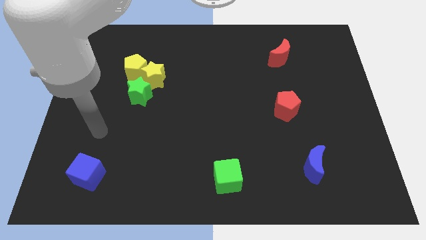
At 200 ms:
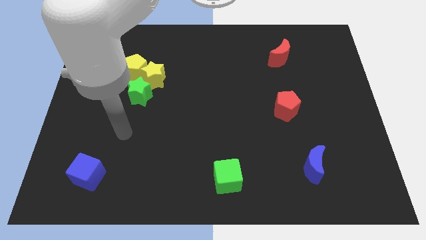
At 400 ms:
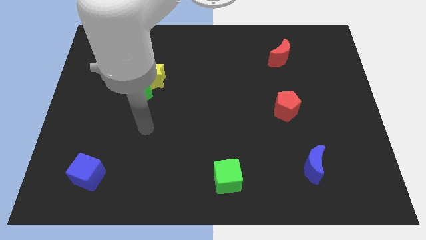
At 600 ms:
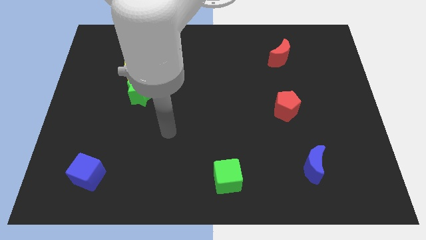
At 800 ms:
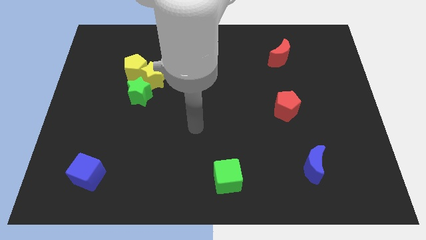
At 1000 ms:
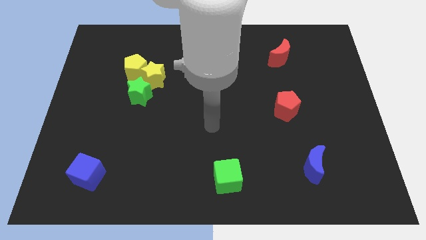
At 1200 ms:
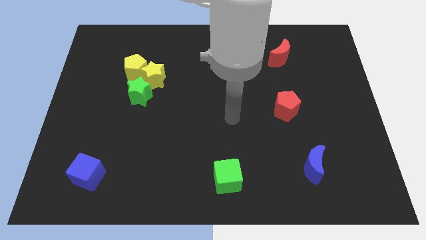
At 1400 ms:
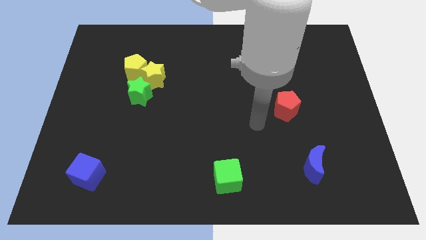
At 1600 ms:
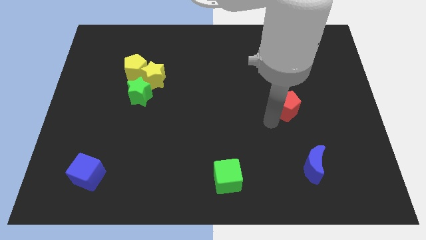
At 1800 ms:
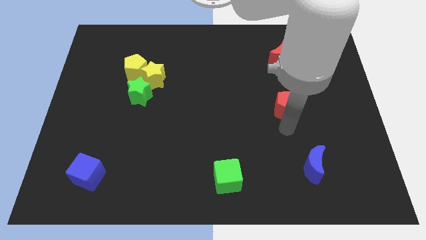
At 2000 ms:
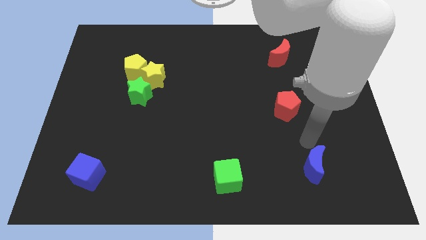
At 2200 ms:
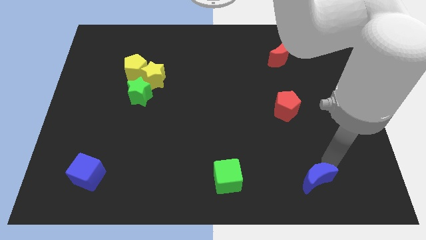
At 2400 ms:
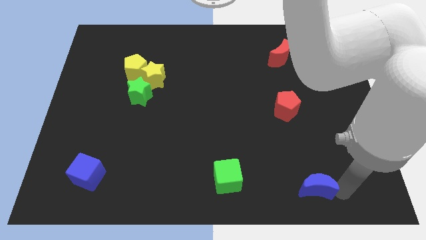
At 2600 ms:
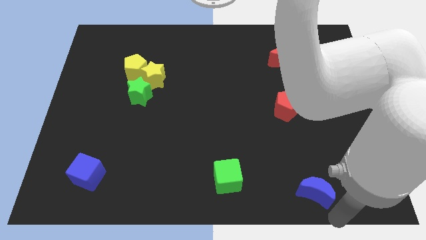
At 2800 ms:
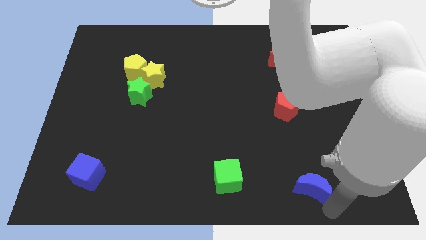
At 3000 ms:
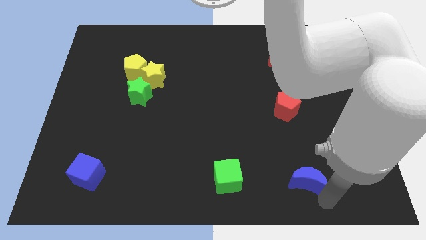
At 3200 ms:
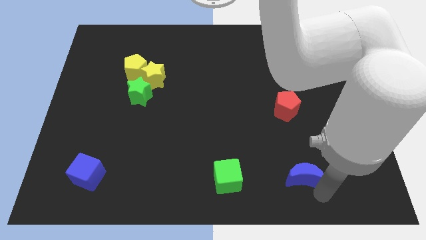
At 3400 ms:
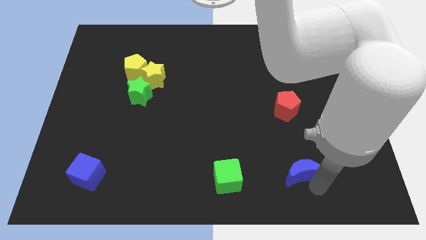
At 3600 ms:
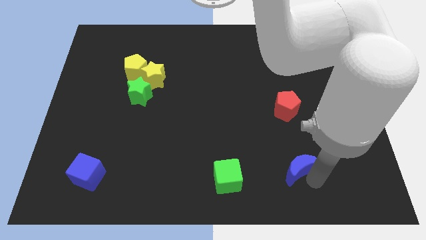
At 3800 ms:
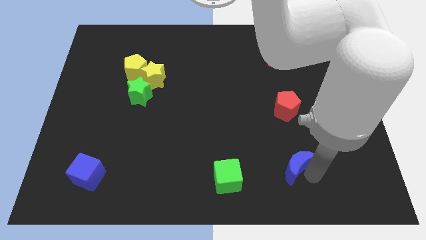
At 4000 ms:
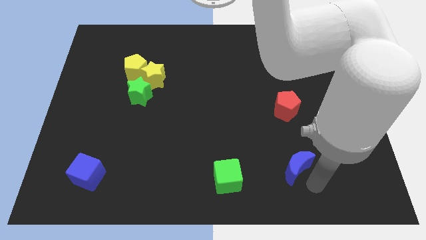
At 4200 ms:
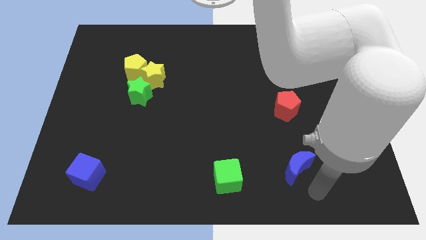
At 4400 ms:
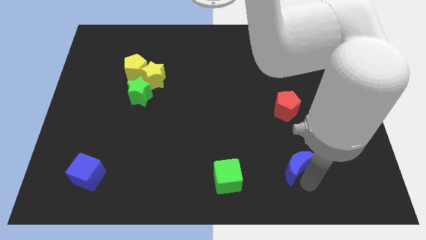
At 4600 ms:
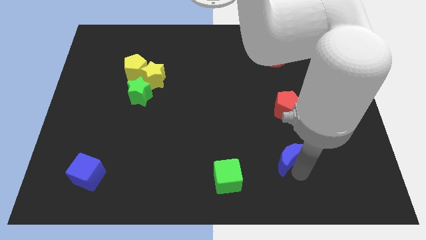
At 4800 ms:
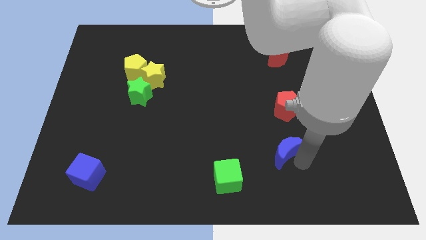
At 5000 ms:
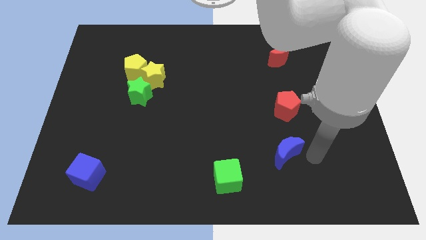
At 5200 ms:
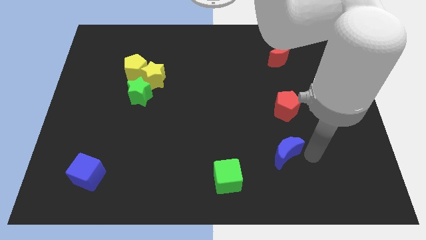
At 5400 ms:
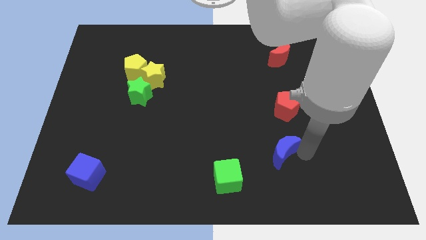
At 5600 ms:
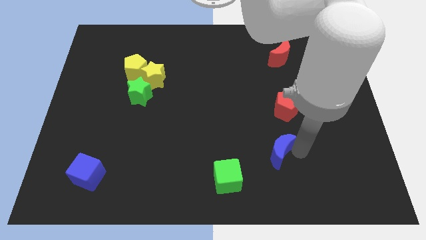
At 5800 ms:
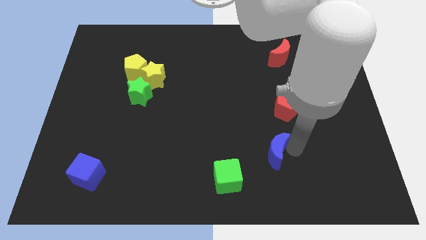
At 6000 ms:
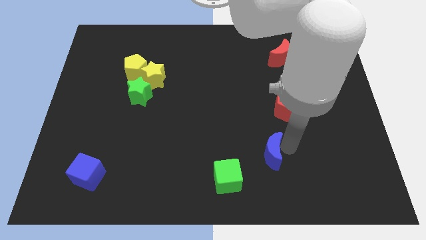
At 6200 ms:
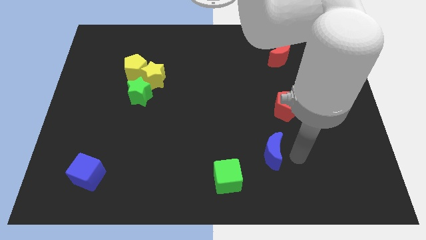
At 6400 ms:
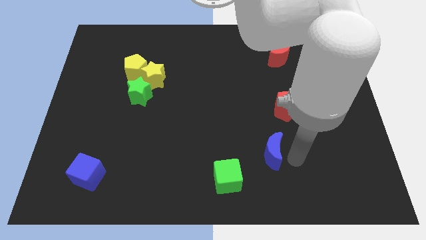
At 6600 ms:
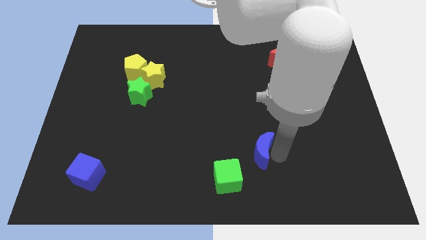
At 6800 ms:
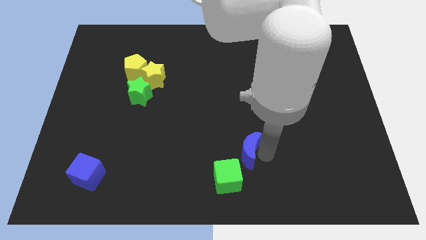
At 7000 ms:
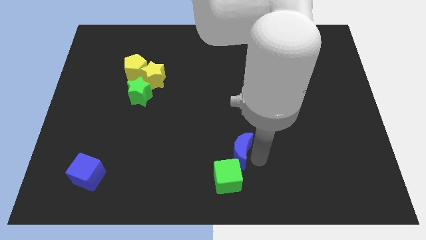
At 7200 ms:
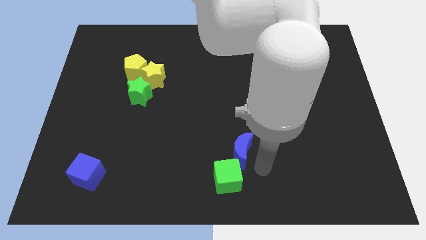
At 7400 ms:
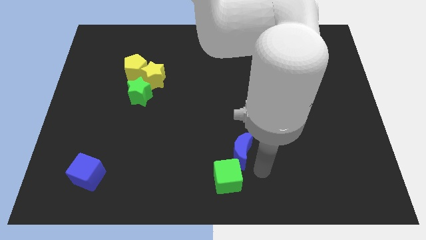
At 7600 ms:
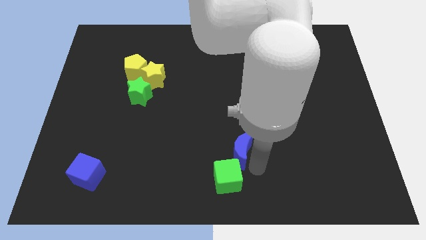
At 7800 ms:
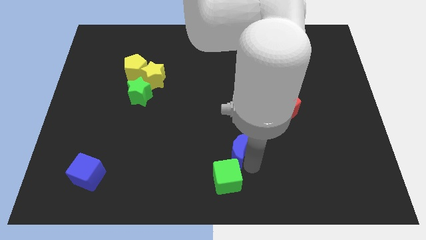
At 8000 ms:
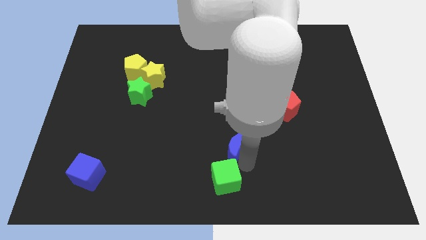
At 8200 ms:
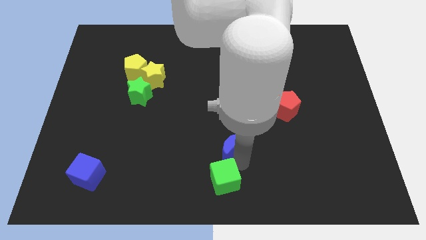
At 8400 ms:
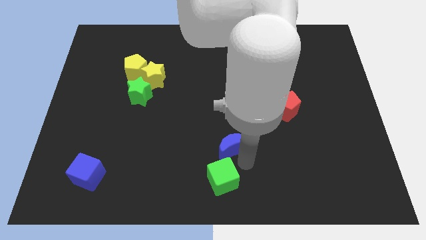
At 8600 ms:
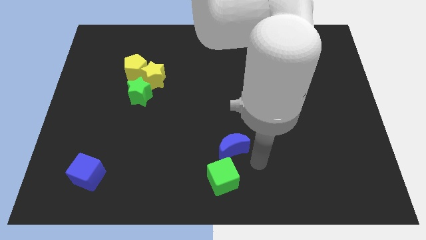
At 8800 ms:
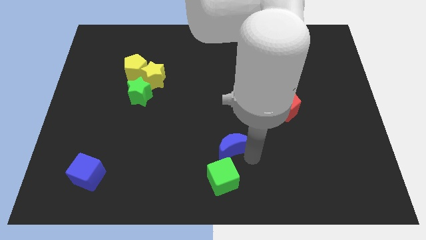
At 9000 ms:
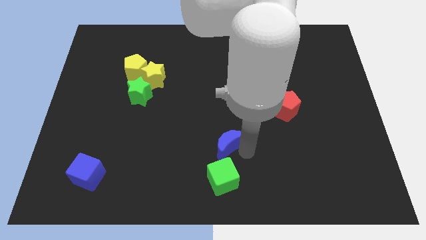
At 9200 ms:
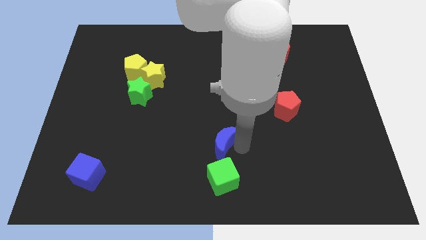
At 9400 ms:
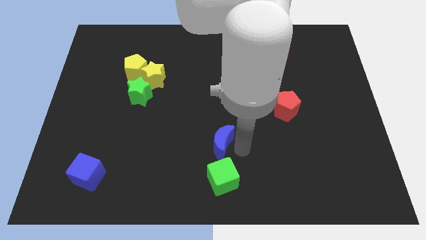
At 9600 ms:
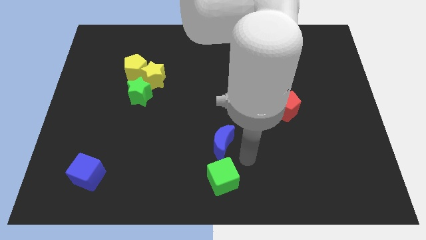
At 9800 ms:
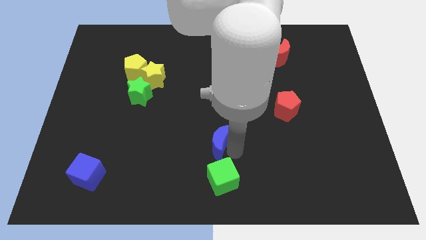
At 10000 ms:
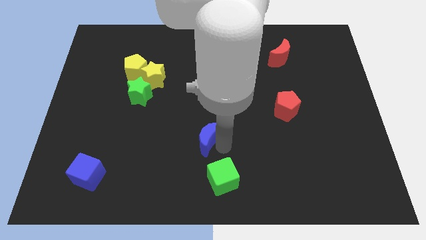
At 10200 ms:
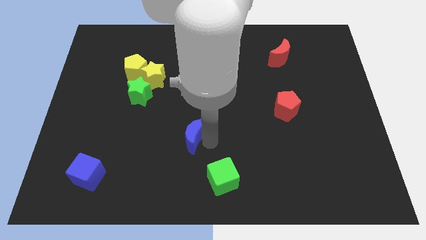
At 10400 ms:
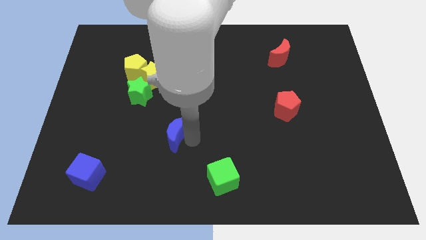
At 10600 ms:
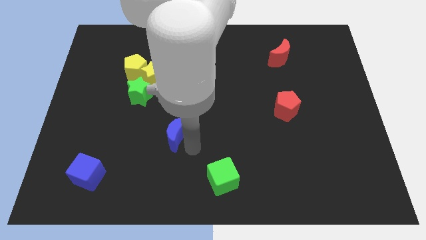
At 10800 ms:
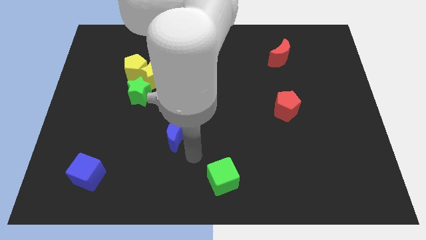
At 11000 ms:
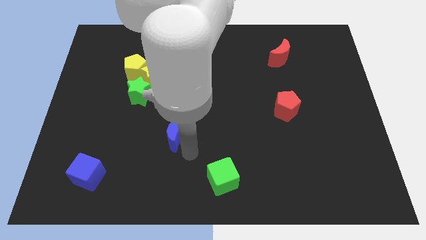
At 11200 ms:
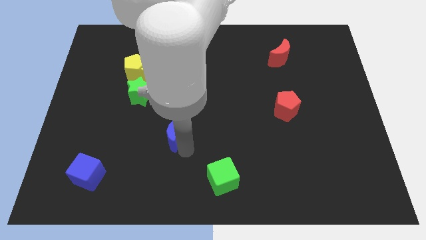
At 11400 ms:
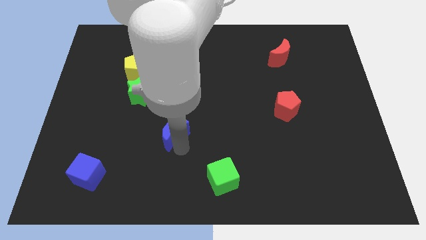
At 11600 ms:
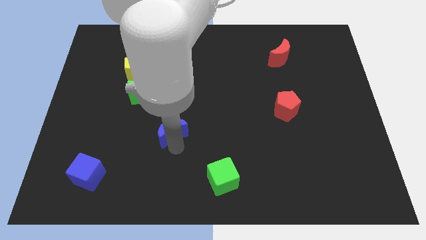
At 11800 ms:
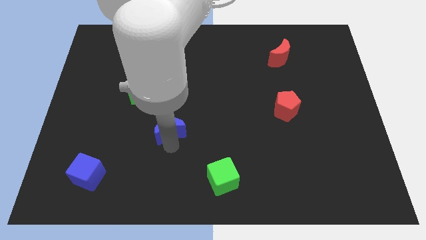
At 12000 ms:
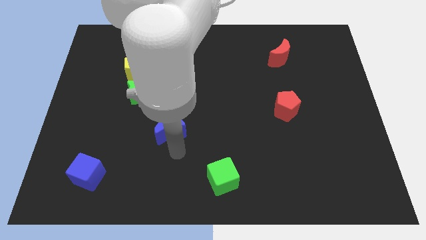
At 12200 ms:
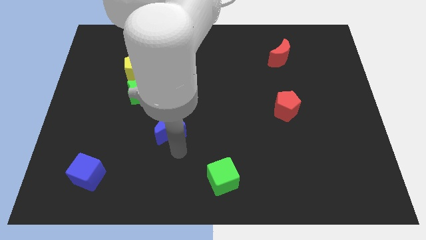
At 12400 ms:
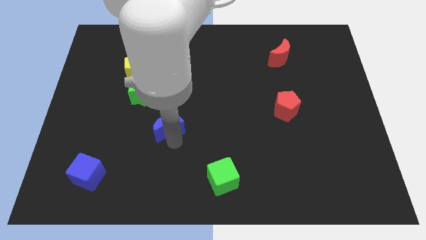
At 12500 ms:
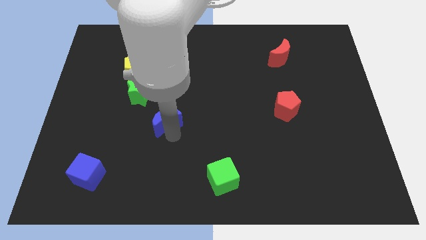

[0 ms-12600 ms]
put the blue moon to the bottom side of the yellow star

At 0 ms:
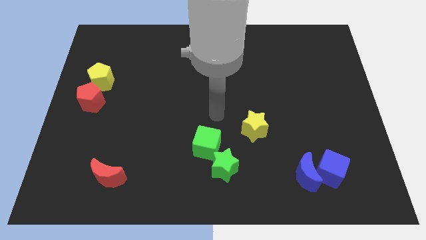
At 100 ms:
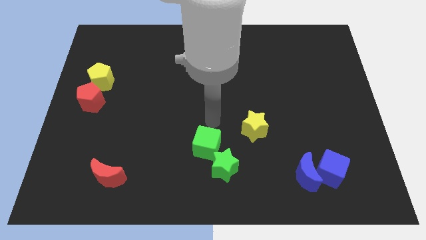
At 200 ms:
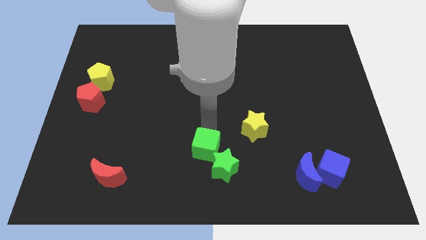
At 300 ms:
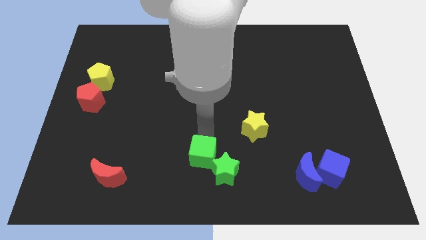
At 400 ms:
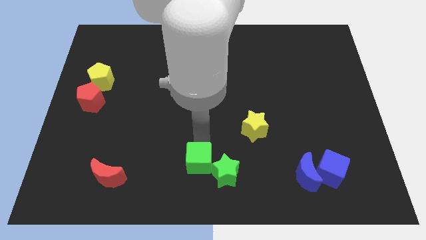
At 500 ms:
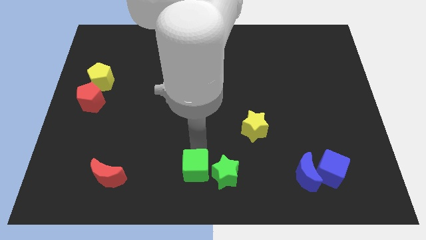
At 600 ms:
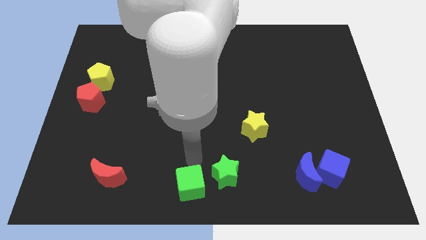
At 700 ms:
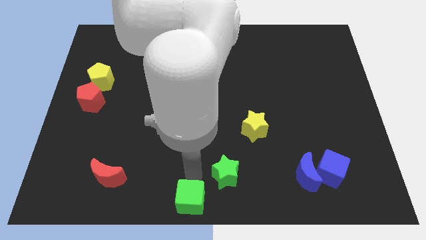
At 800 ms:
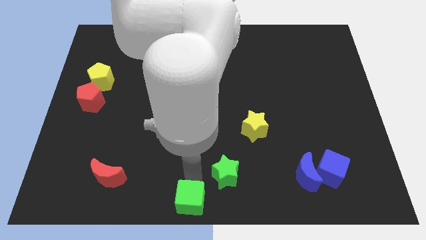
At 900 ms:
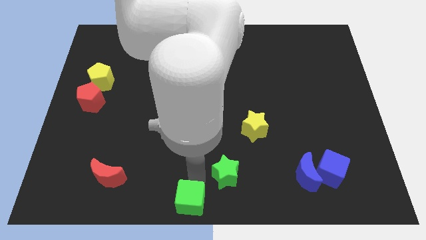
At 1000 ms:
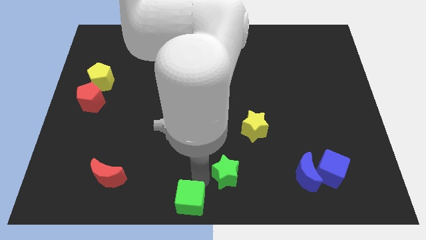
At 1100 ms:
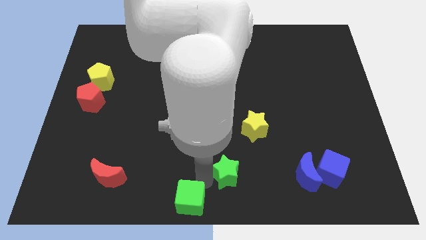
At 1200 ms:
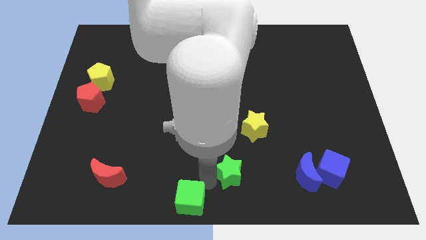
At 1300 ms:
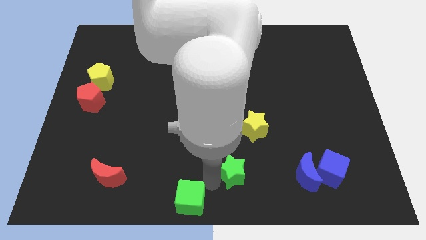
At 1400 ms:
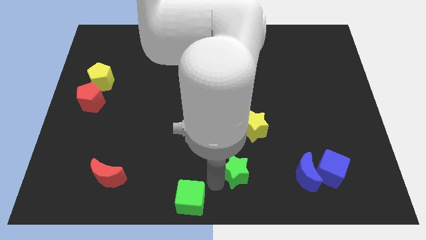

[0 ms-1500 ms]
put the green star to the bottom side of the yellow star
